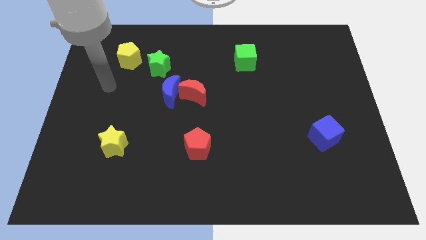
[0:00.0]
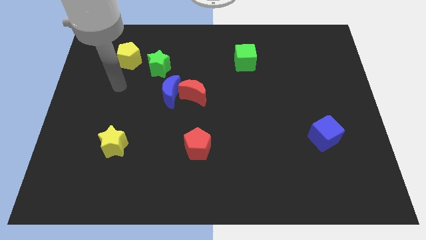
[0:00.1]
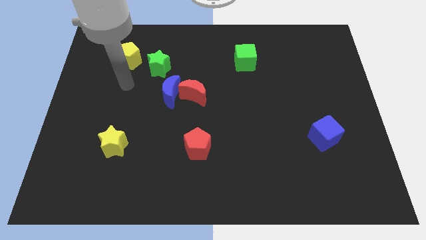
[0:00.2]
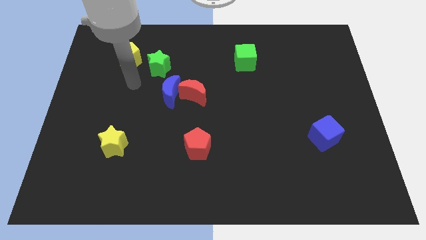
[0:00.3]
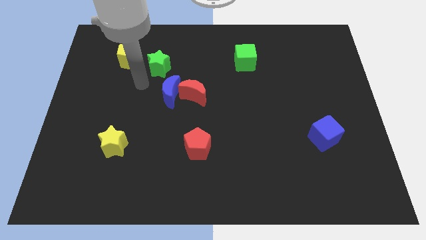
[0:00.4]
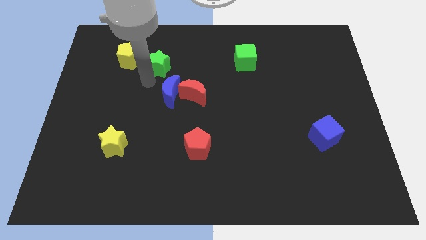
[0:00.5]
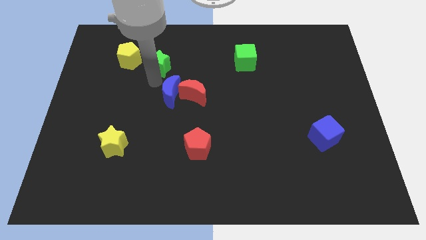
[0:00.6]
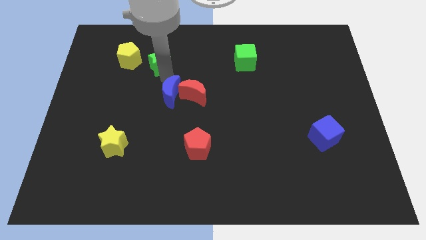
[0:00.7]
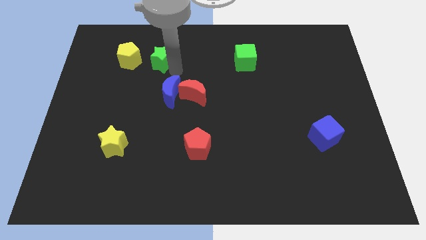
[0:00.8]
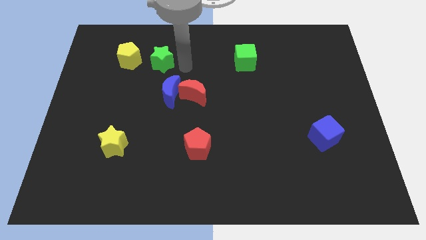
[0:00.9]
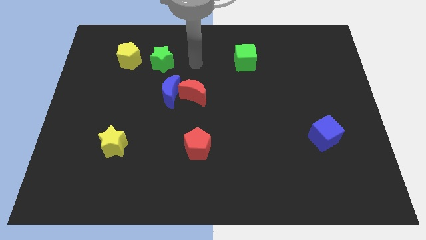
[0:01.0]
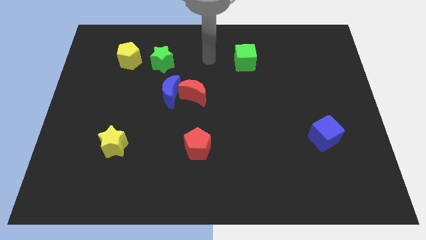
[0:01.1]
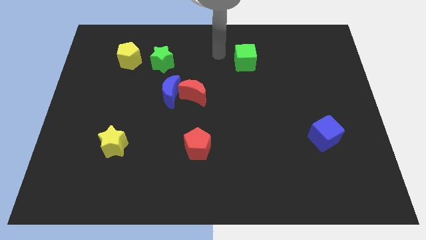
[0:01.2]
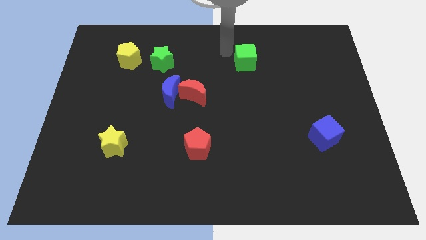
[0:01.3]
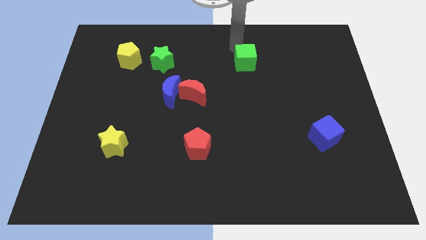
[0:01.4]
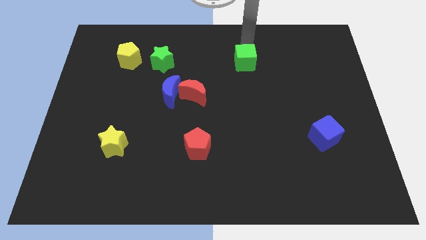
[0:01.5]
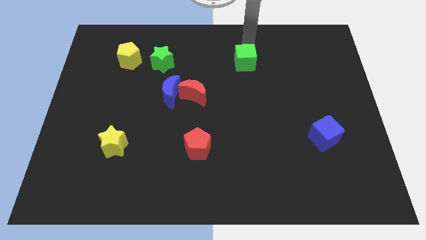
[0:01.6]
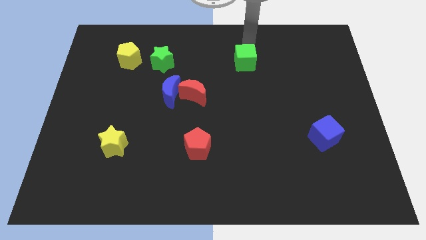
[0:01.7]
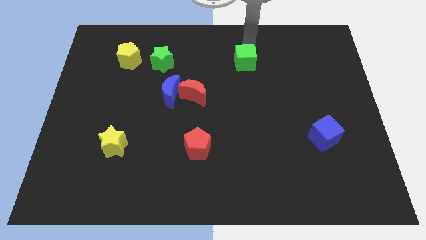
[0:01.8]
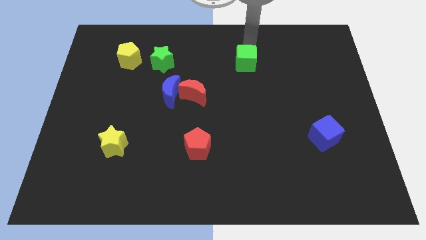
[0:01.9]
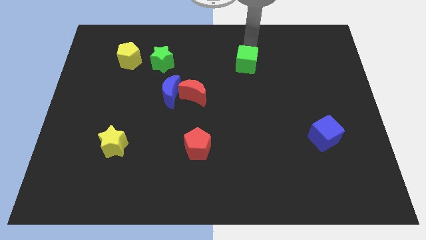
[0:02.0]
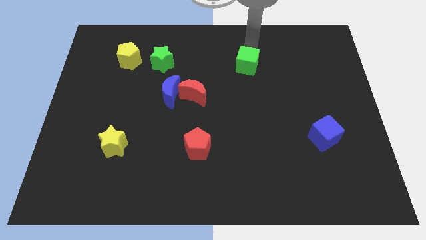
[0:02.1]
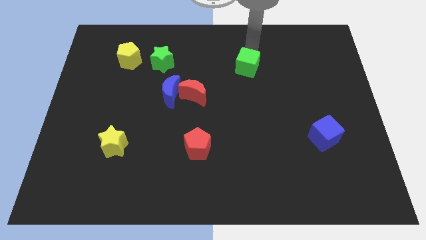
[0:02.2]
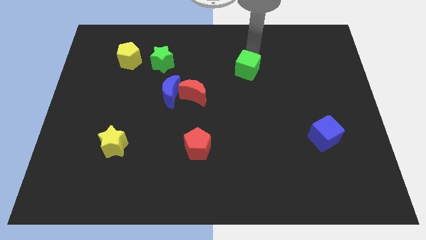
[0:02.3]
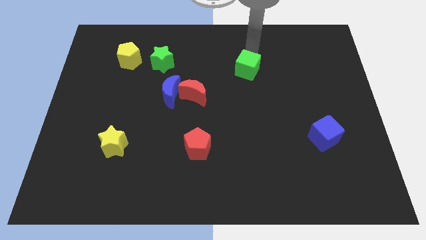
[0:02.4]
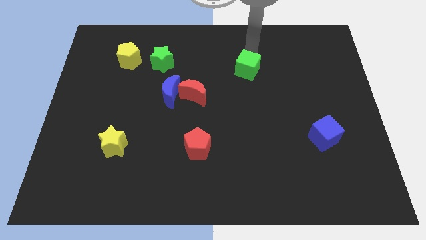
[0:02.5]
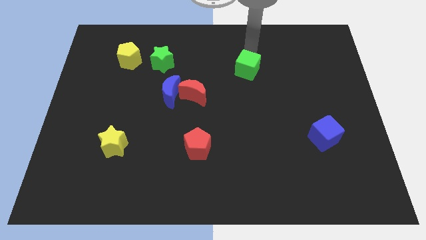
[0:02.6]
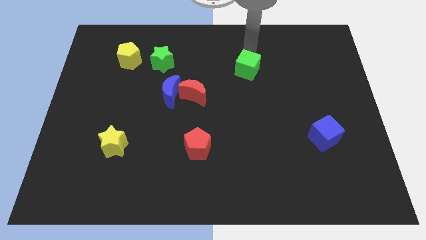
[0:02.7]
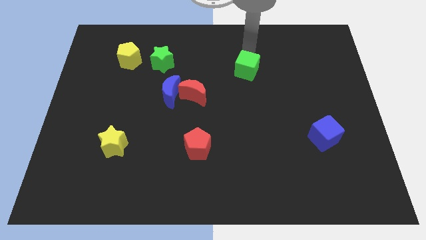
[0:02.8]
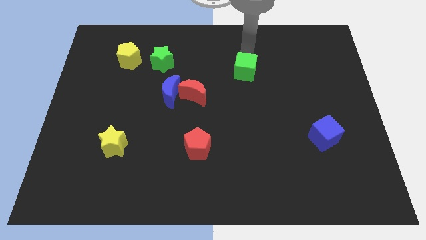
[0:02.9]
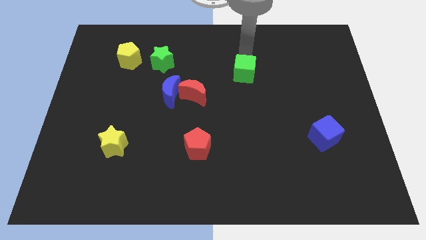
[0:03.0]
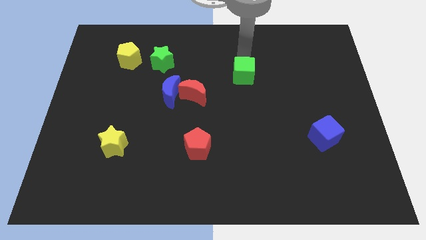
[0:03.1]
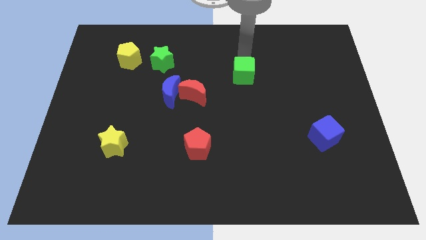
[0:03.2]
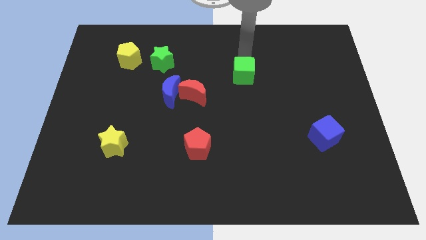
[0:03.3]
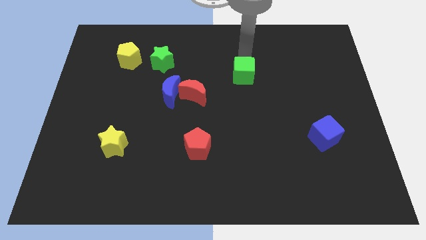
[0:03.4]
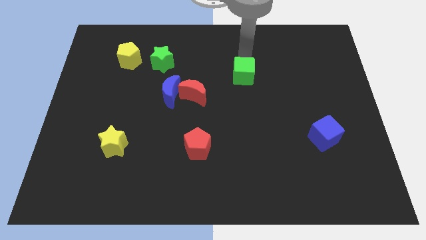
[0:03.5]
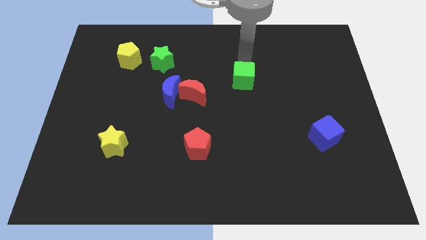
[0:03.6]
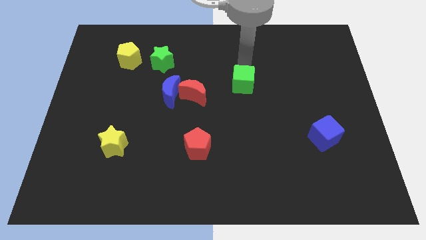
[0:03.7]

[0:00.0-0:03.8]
slightly move the green cube down

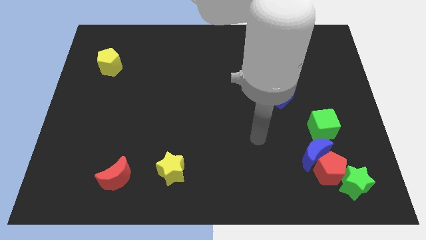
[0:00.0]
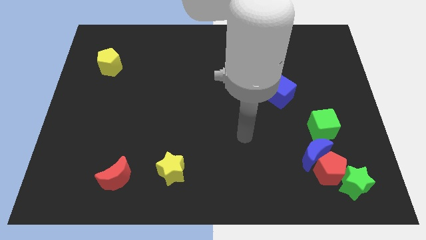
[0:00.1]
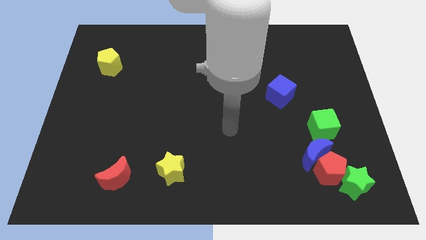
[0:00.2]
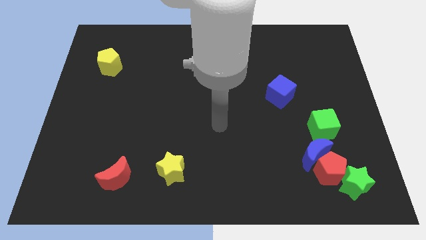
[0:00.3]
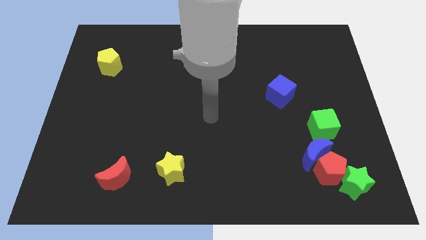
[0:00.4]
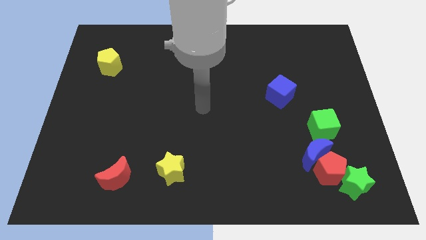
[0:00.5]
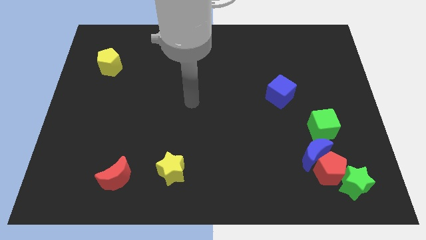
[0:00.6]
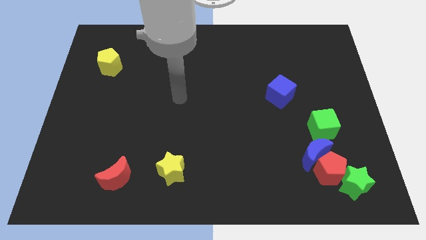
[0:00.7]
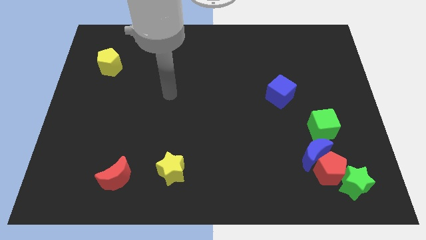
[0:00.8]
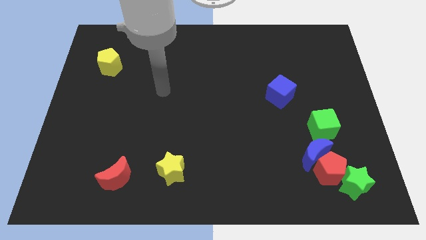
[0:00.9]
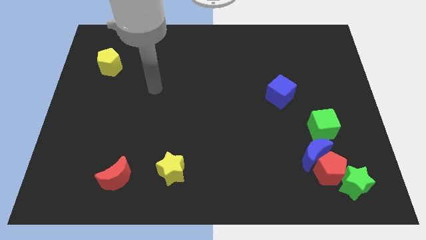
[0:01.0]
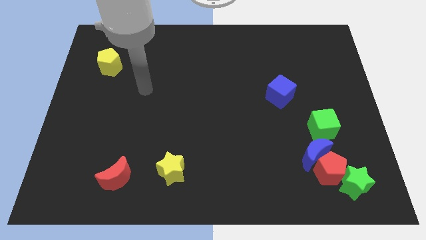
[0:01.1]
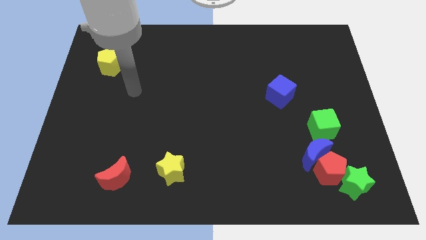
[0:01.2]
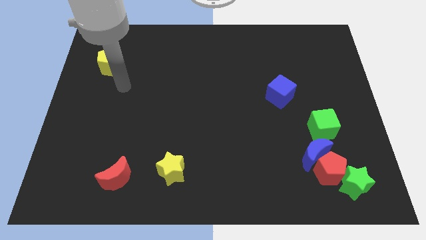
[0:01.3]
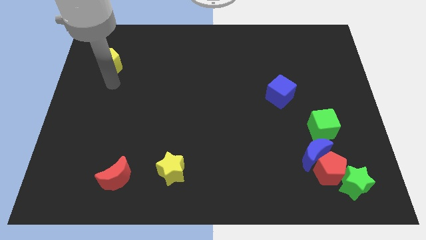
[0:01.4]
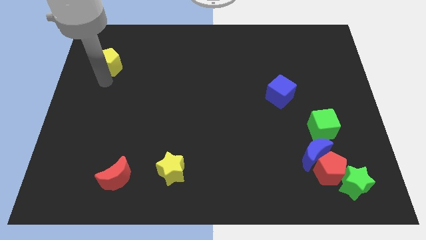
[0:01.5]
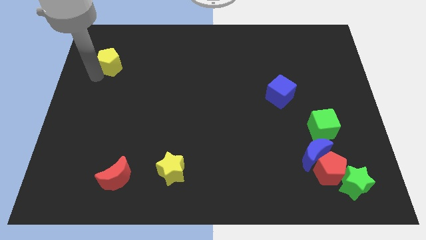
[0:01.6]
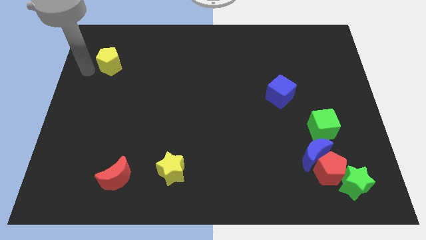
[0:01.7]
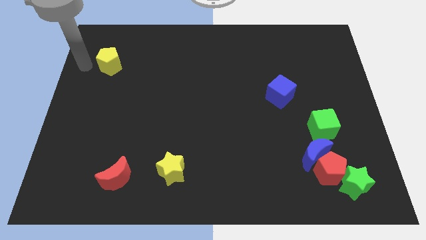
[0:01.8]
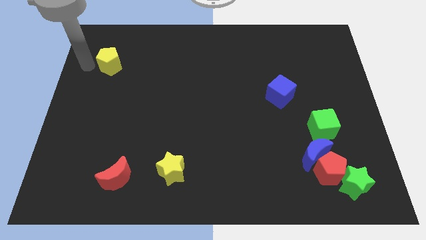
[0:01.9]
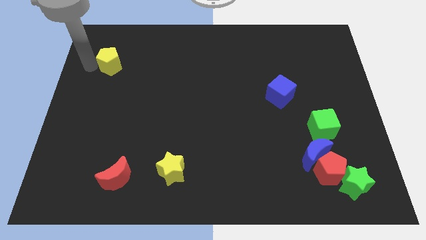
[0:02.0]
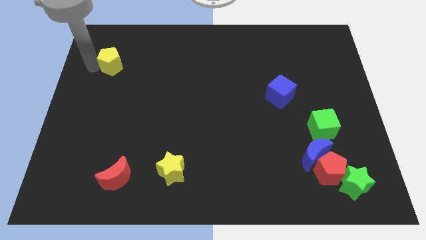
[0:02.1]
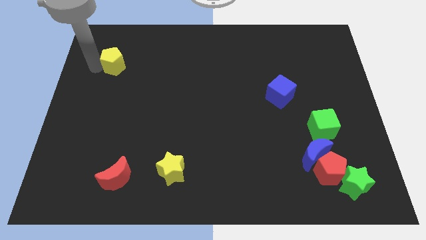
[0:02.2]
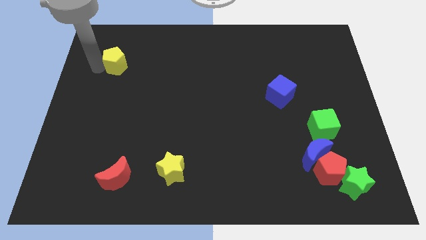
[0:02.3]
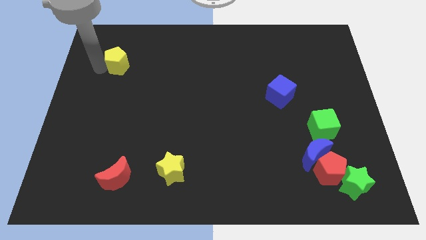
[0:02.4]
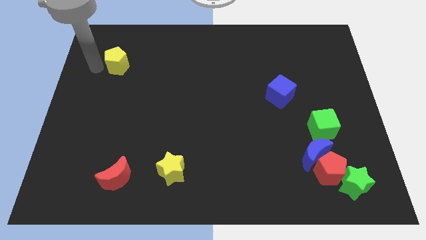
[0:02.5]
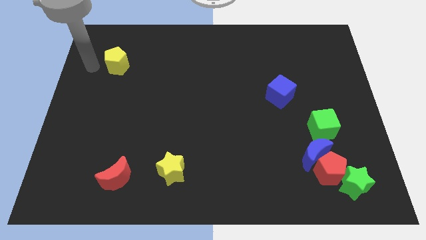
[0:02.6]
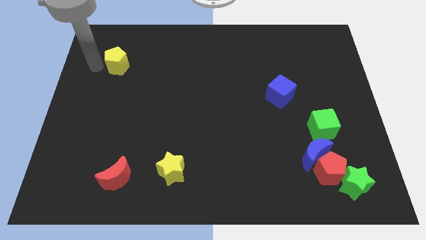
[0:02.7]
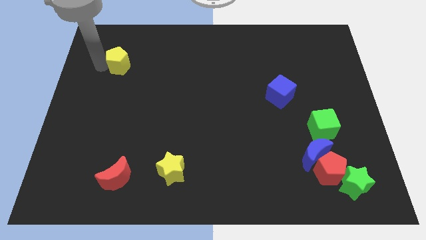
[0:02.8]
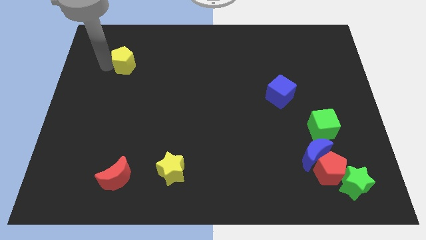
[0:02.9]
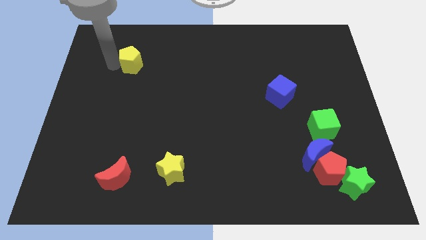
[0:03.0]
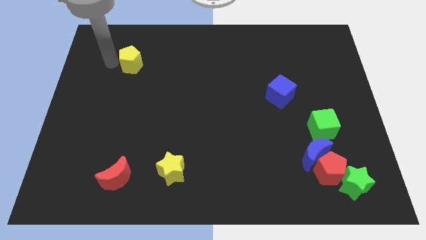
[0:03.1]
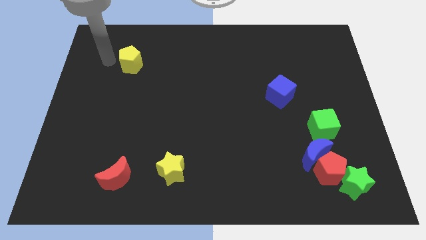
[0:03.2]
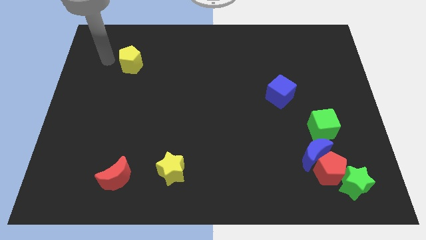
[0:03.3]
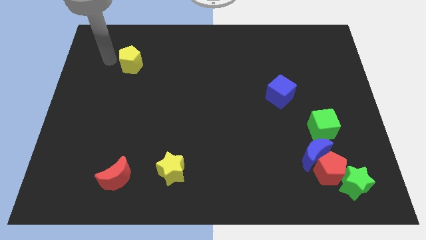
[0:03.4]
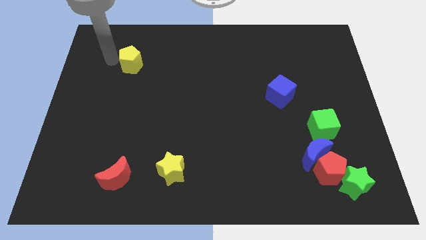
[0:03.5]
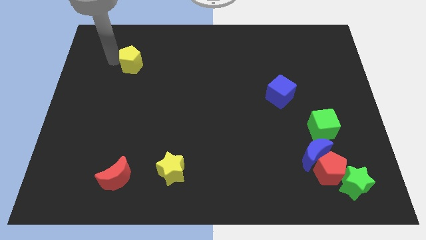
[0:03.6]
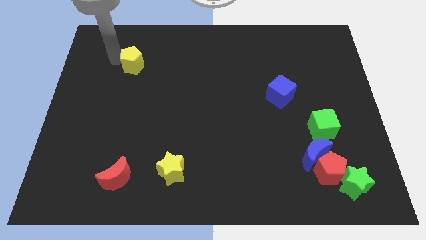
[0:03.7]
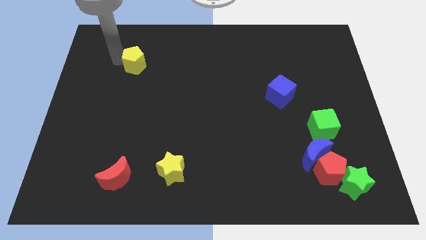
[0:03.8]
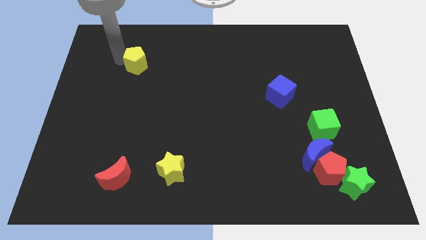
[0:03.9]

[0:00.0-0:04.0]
slide the yellow pentagon right somewhat

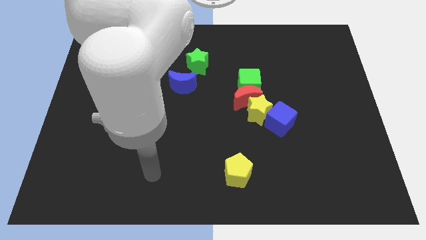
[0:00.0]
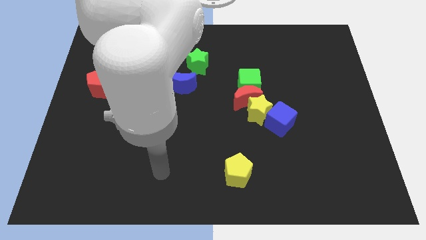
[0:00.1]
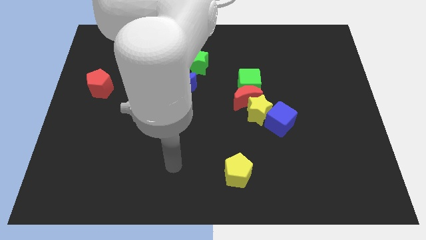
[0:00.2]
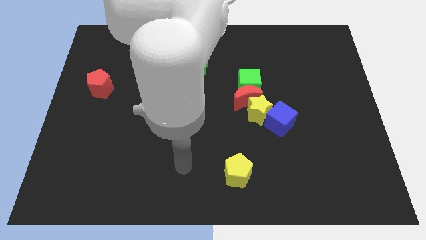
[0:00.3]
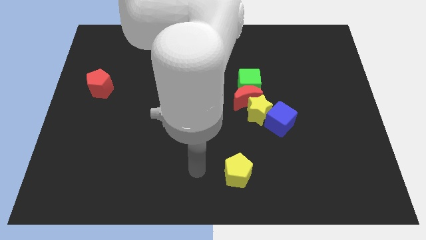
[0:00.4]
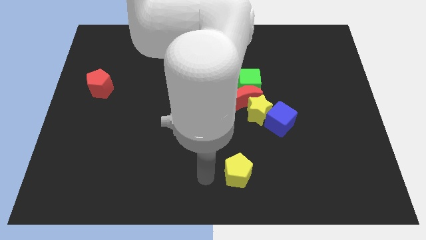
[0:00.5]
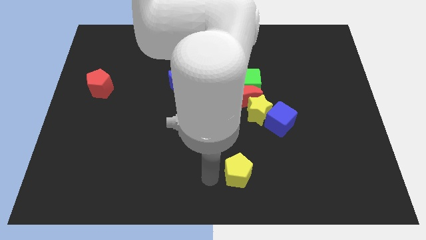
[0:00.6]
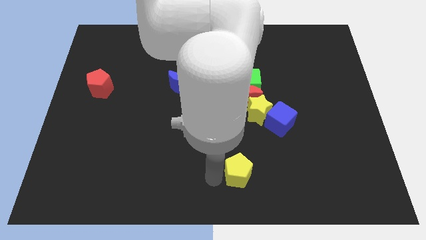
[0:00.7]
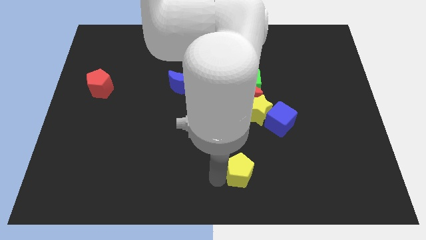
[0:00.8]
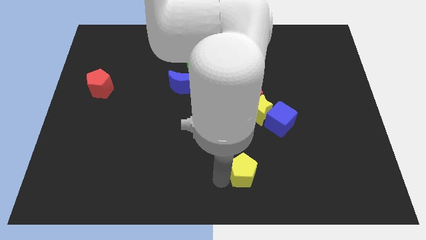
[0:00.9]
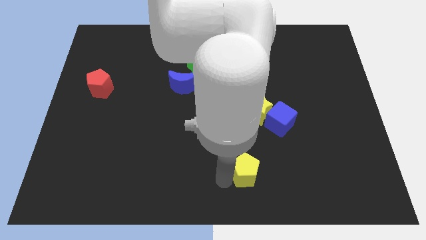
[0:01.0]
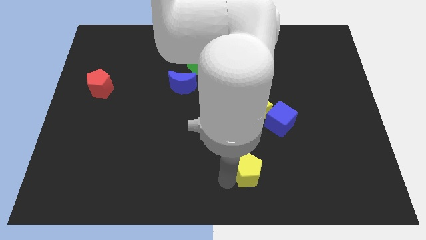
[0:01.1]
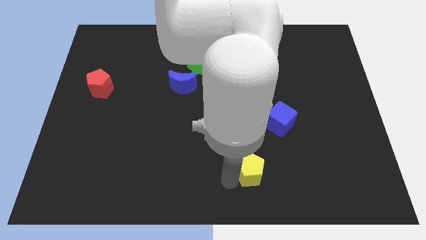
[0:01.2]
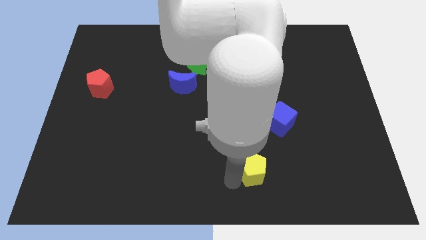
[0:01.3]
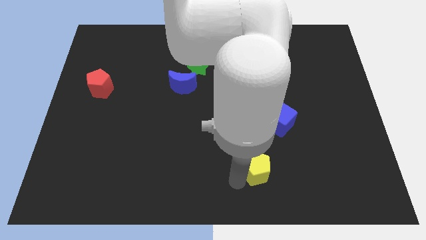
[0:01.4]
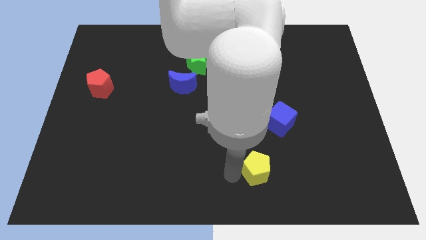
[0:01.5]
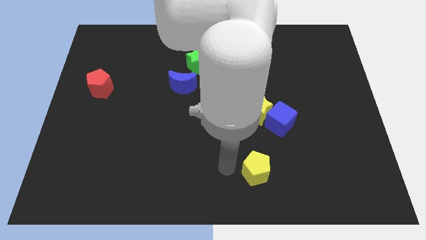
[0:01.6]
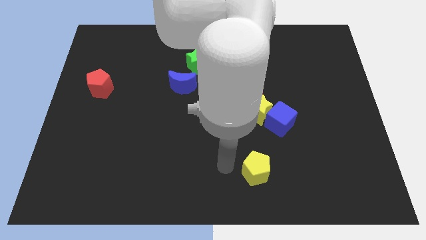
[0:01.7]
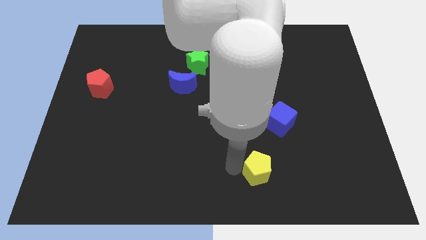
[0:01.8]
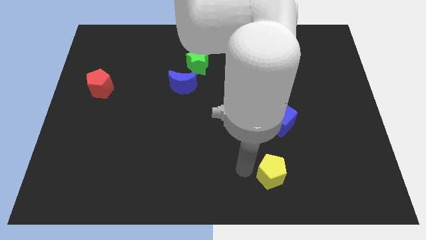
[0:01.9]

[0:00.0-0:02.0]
move the yellow pentagon right slightly
